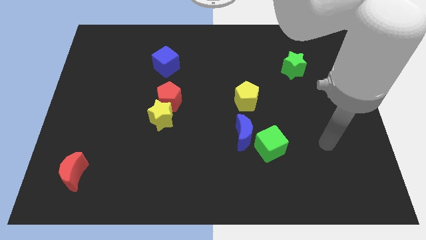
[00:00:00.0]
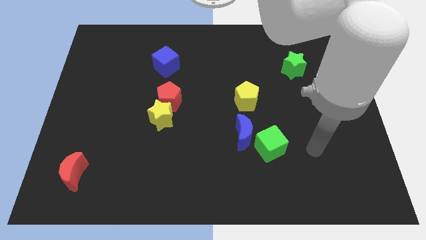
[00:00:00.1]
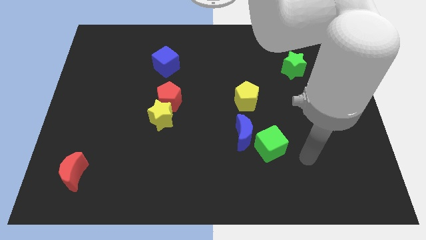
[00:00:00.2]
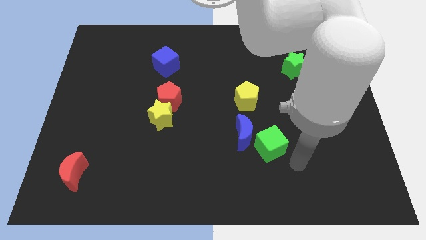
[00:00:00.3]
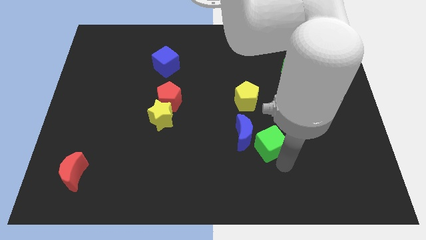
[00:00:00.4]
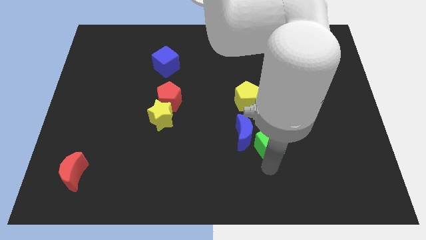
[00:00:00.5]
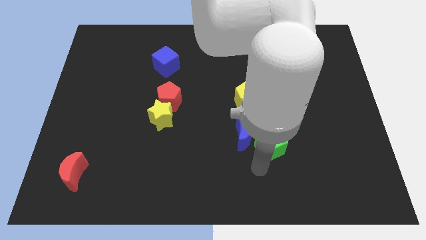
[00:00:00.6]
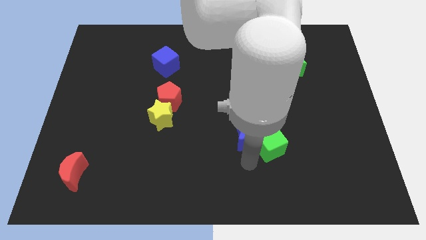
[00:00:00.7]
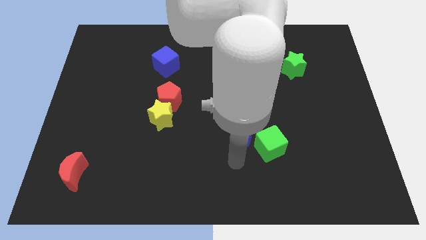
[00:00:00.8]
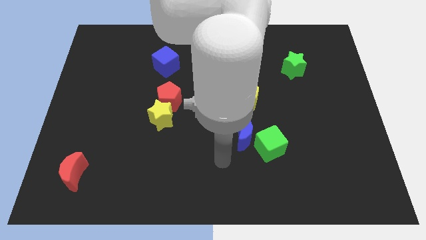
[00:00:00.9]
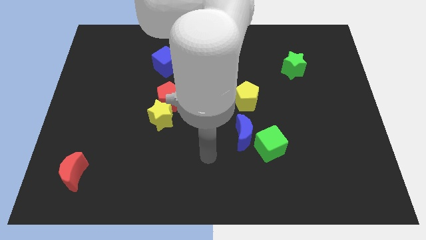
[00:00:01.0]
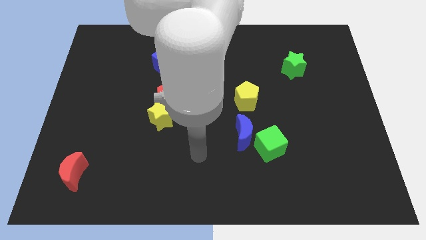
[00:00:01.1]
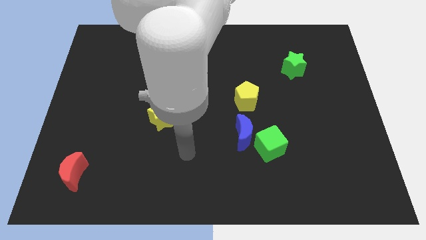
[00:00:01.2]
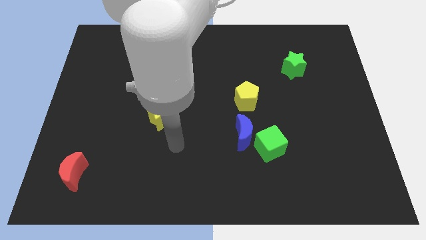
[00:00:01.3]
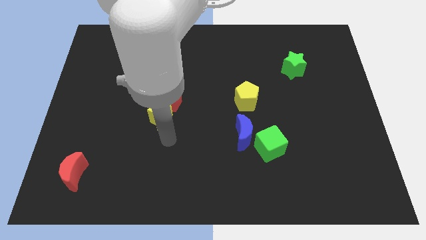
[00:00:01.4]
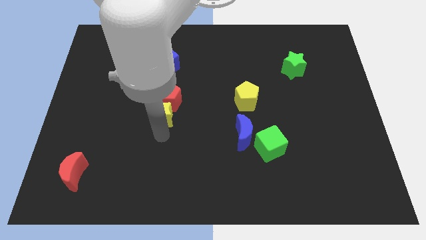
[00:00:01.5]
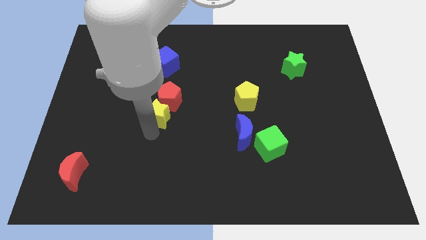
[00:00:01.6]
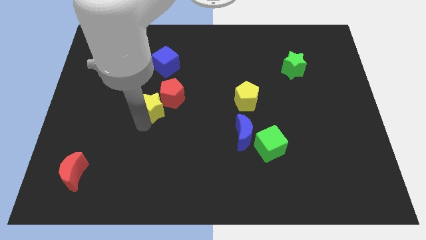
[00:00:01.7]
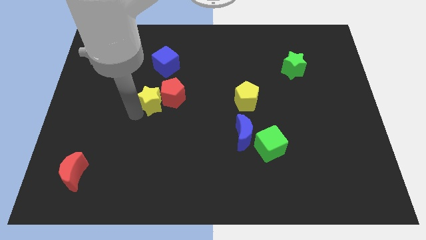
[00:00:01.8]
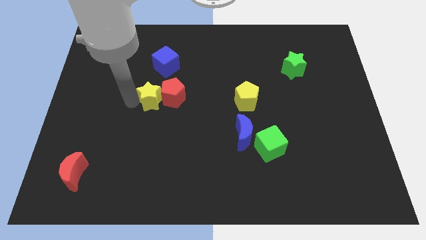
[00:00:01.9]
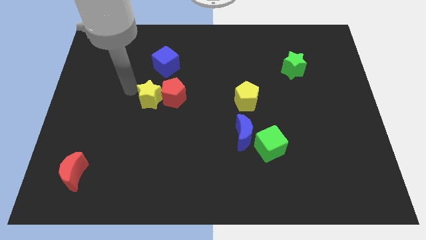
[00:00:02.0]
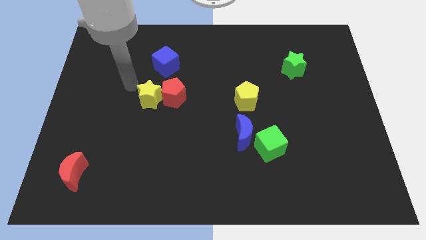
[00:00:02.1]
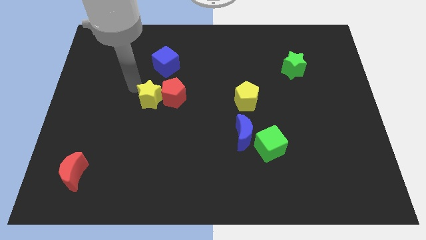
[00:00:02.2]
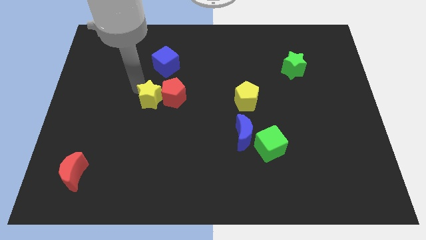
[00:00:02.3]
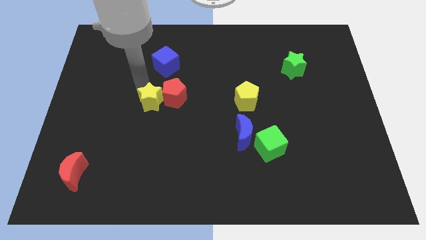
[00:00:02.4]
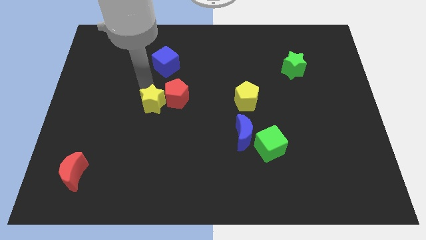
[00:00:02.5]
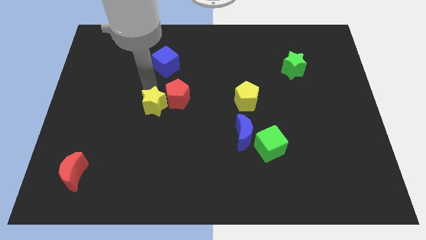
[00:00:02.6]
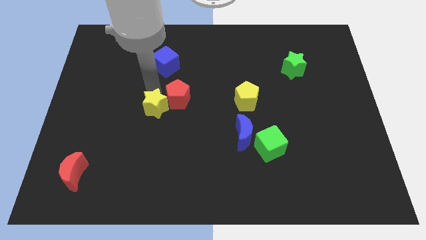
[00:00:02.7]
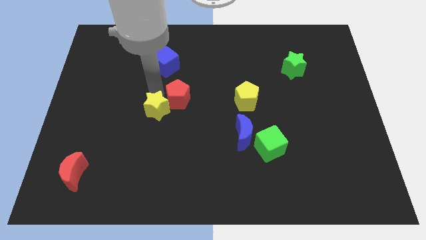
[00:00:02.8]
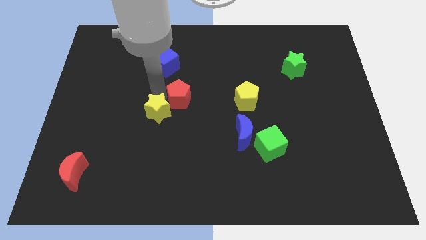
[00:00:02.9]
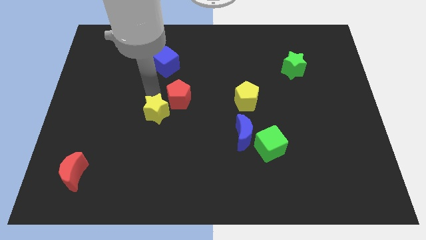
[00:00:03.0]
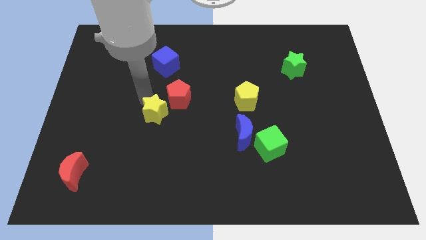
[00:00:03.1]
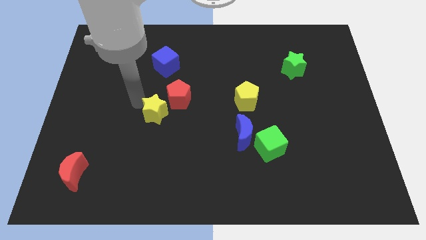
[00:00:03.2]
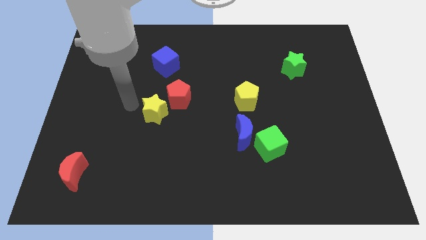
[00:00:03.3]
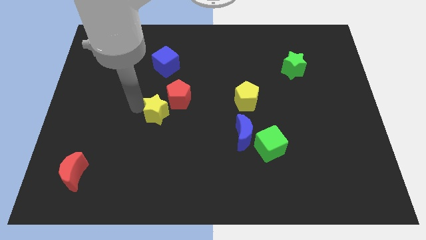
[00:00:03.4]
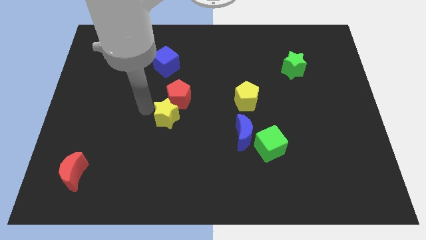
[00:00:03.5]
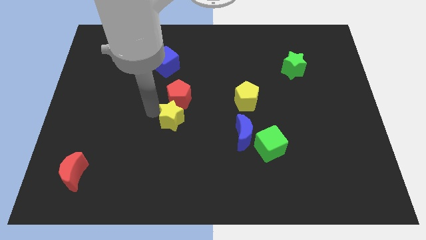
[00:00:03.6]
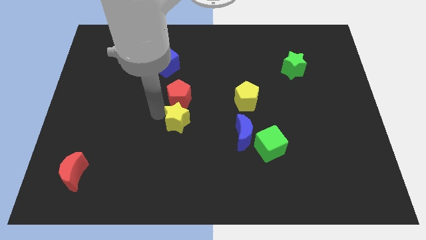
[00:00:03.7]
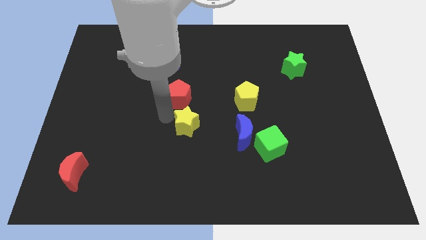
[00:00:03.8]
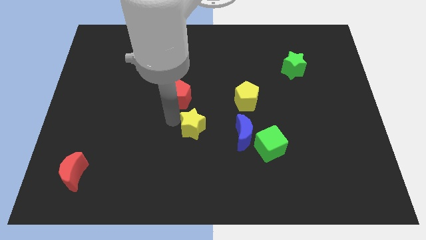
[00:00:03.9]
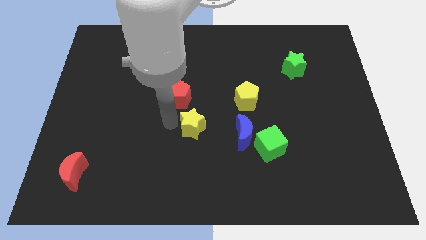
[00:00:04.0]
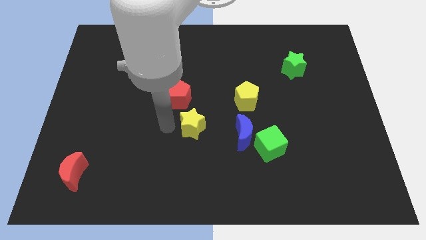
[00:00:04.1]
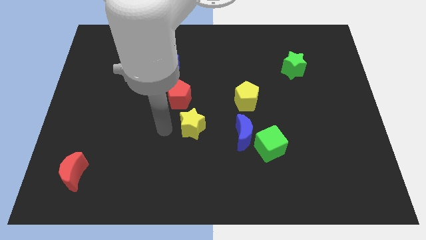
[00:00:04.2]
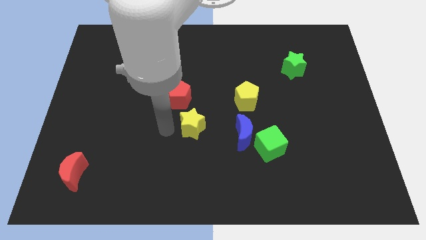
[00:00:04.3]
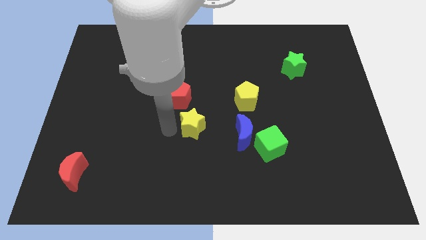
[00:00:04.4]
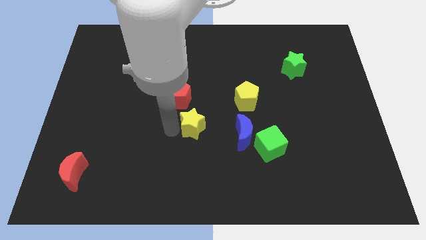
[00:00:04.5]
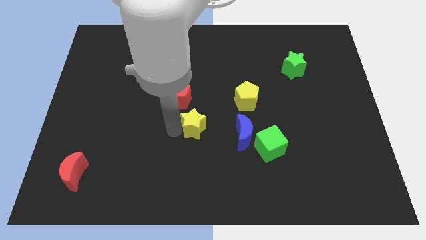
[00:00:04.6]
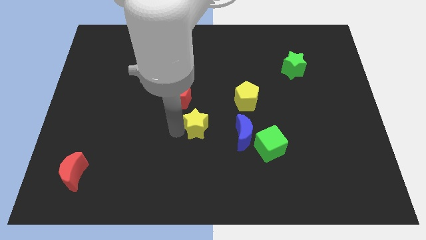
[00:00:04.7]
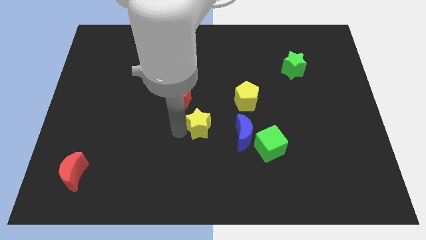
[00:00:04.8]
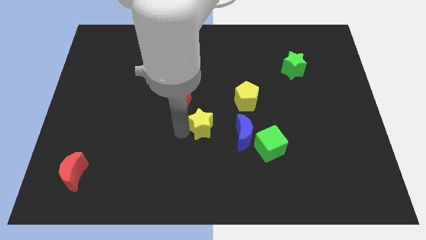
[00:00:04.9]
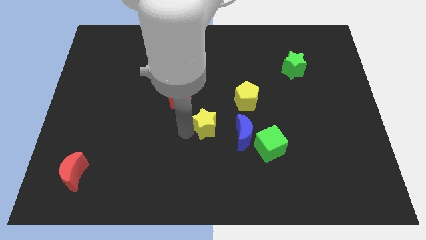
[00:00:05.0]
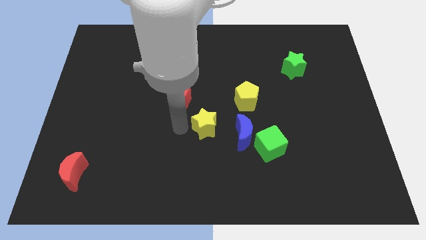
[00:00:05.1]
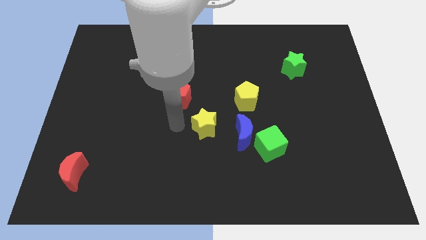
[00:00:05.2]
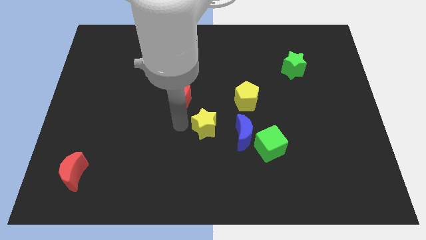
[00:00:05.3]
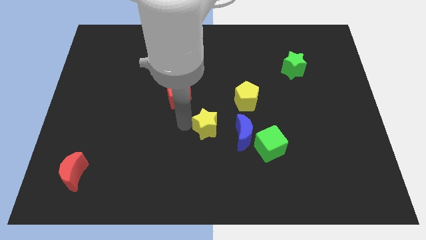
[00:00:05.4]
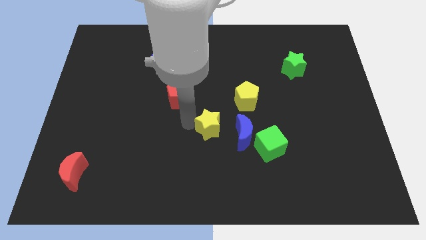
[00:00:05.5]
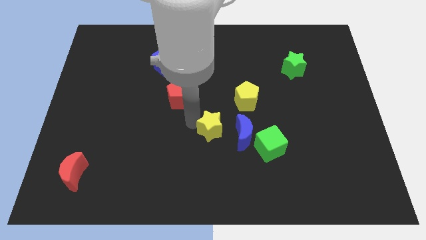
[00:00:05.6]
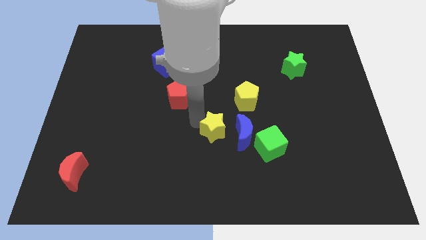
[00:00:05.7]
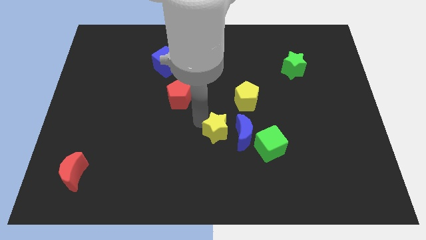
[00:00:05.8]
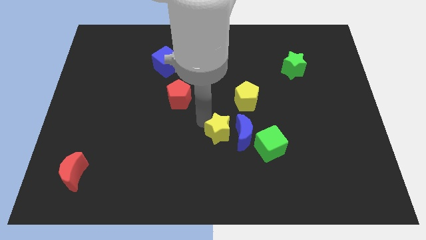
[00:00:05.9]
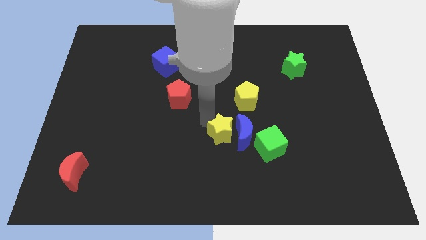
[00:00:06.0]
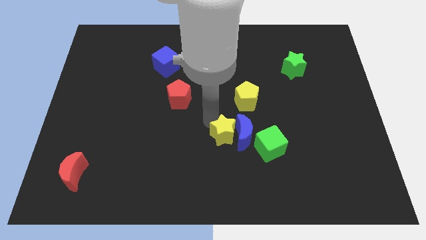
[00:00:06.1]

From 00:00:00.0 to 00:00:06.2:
move the yellow star to the top left of the green cube

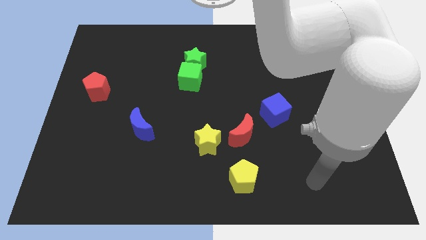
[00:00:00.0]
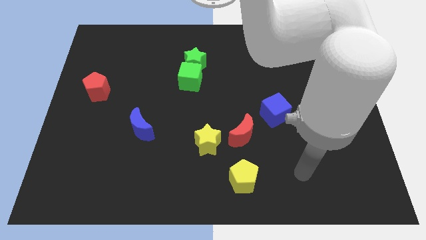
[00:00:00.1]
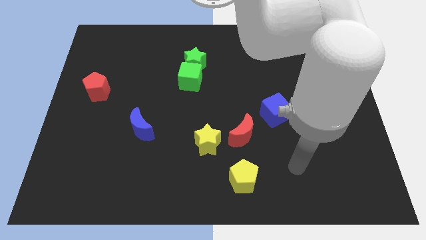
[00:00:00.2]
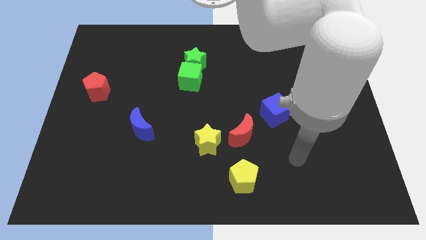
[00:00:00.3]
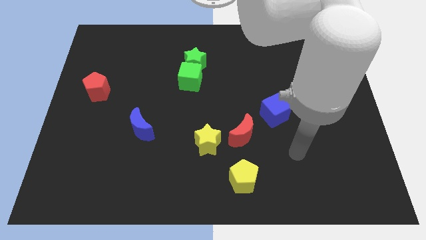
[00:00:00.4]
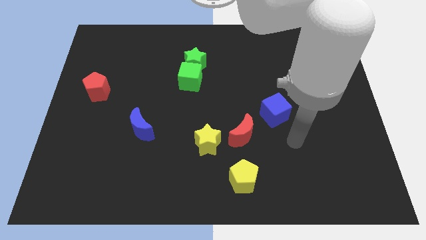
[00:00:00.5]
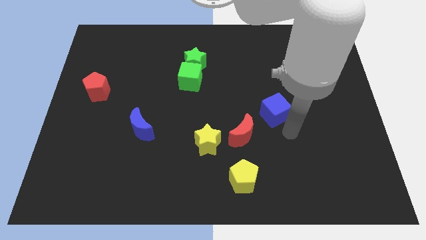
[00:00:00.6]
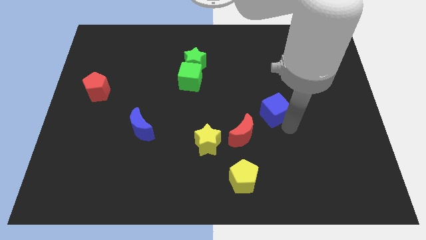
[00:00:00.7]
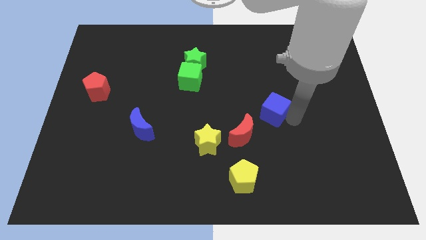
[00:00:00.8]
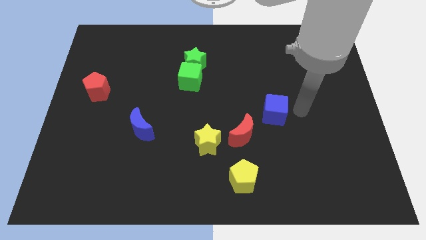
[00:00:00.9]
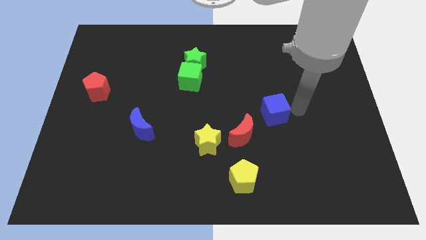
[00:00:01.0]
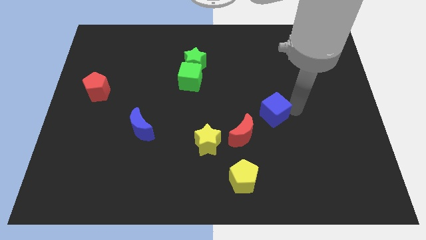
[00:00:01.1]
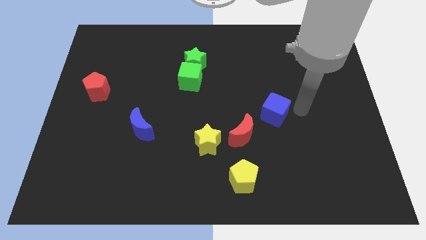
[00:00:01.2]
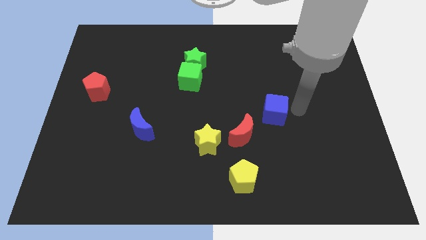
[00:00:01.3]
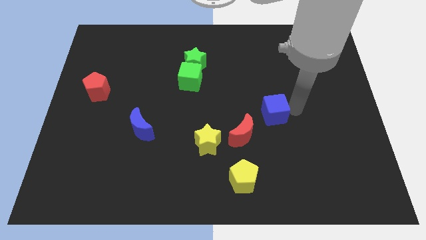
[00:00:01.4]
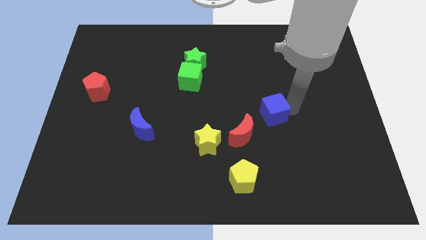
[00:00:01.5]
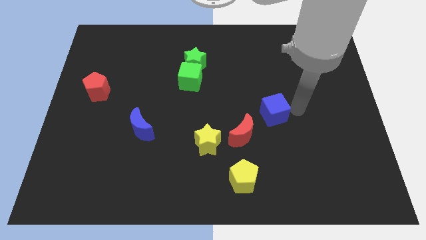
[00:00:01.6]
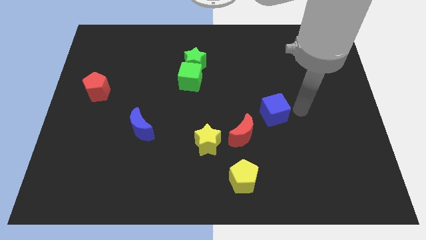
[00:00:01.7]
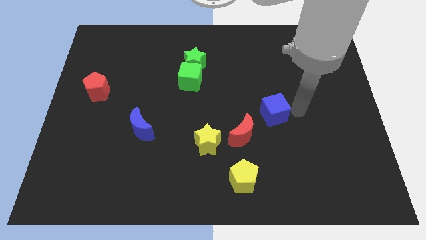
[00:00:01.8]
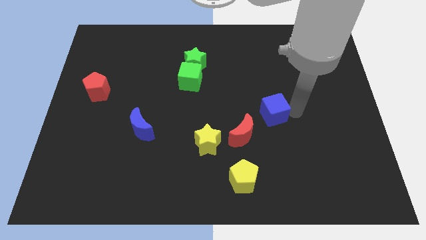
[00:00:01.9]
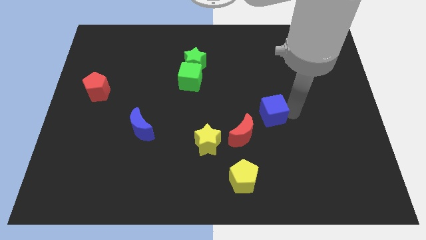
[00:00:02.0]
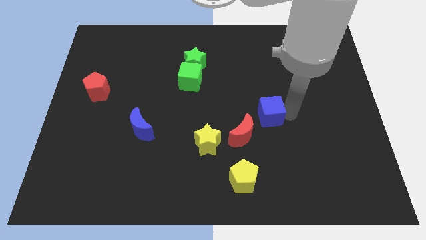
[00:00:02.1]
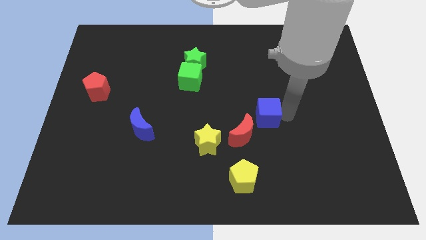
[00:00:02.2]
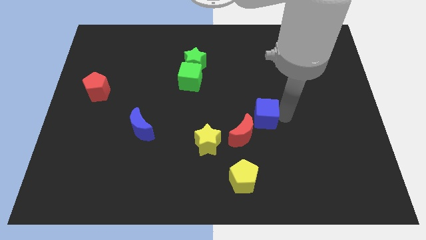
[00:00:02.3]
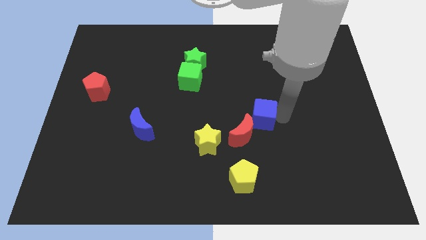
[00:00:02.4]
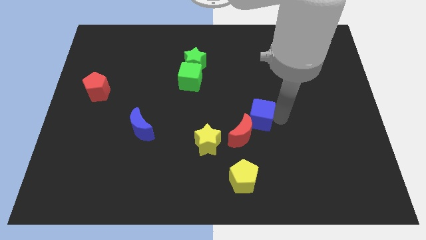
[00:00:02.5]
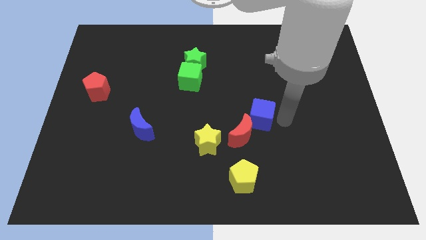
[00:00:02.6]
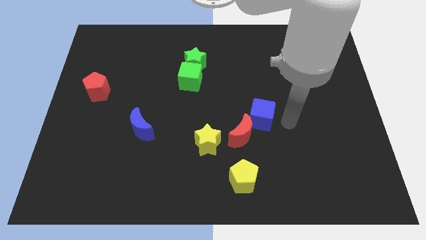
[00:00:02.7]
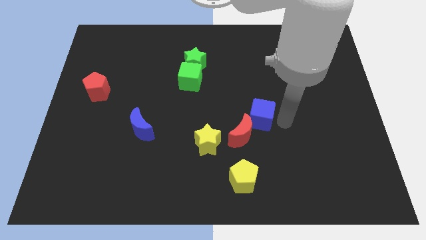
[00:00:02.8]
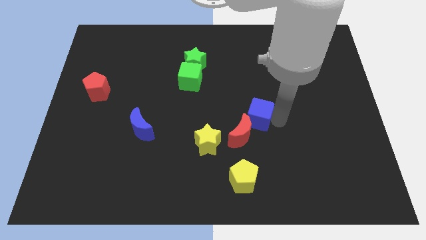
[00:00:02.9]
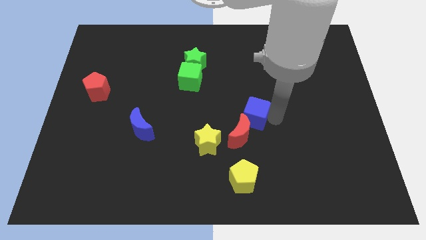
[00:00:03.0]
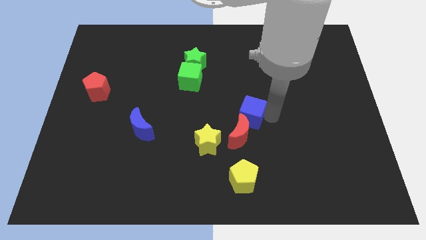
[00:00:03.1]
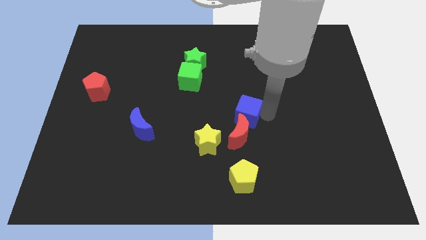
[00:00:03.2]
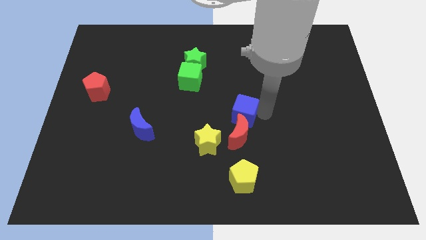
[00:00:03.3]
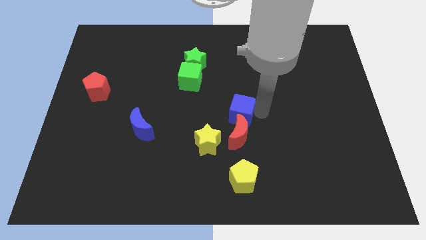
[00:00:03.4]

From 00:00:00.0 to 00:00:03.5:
put the blue cube diagonally up and to the left of the red moon
